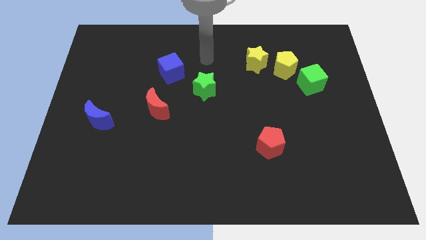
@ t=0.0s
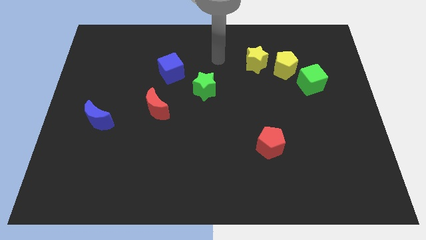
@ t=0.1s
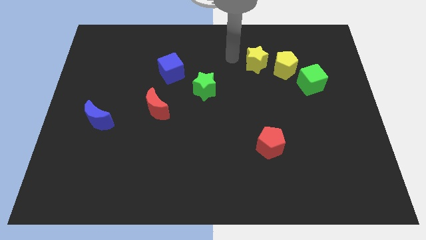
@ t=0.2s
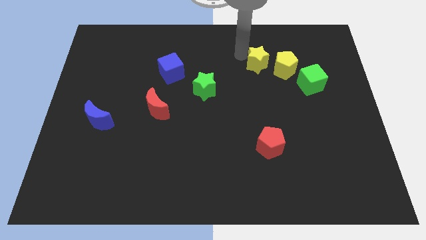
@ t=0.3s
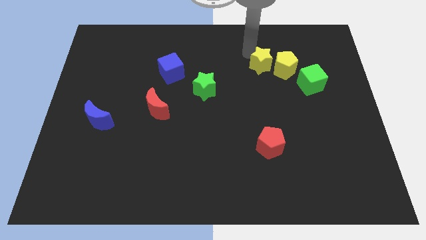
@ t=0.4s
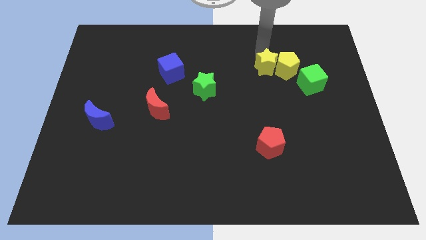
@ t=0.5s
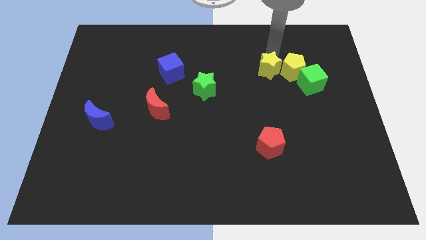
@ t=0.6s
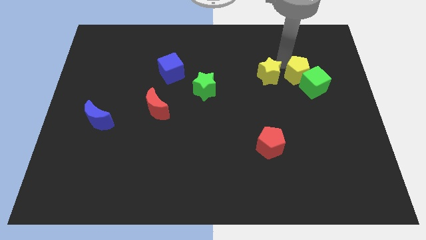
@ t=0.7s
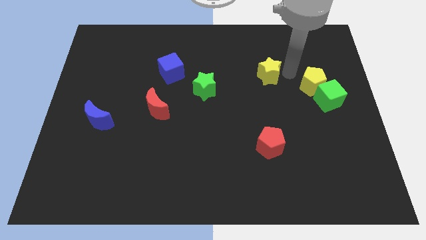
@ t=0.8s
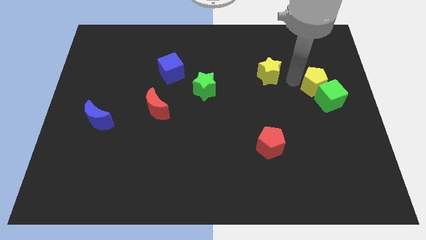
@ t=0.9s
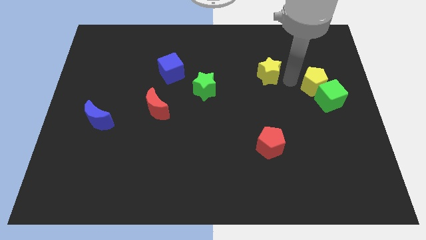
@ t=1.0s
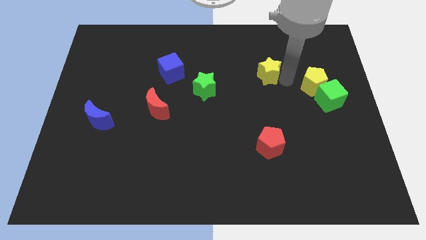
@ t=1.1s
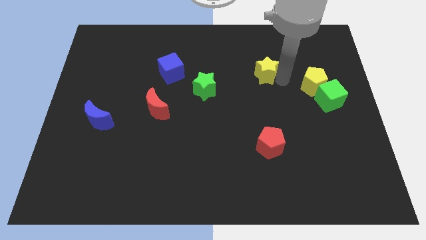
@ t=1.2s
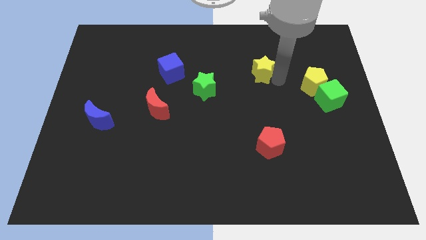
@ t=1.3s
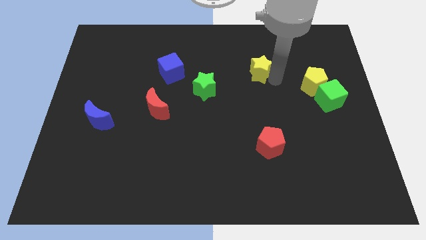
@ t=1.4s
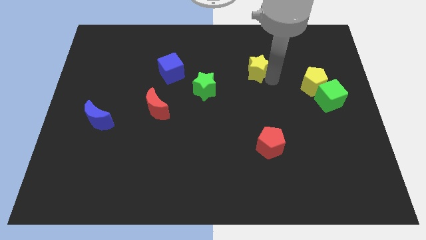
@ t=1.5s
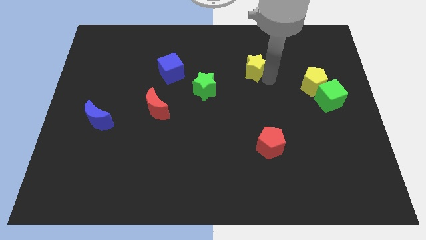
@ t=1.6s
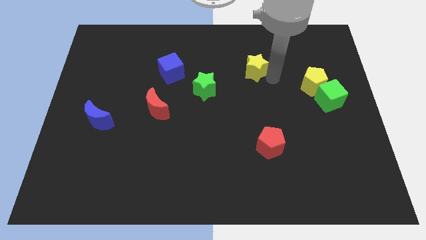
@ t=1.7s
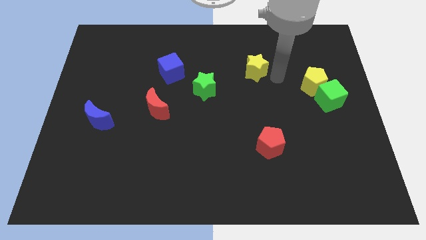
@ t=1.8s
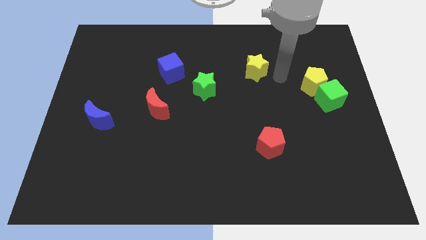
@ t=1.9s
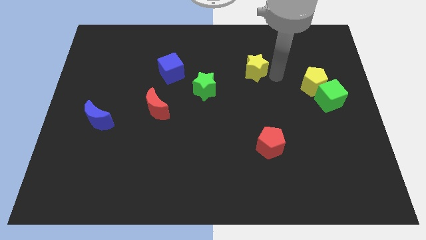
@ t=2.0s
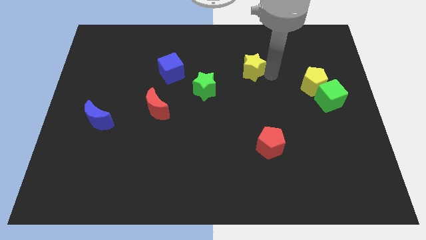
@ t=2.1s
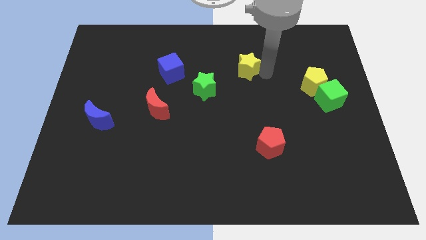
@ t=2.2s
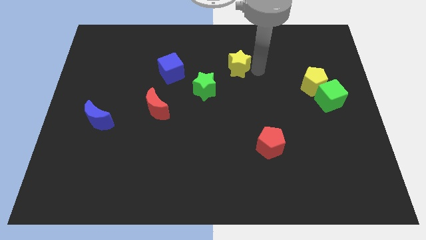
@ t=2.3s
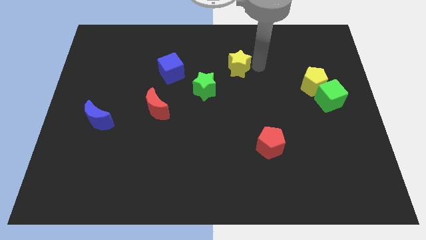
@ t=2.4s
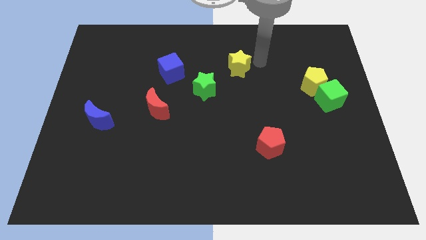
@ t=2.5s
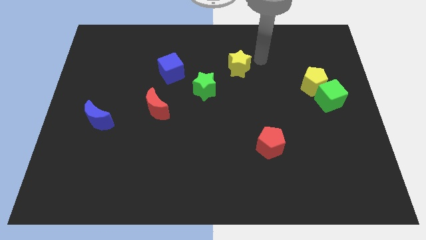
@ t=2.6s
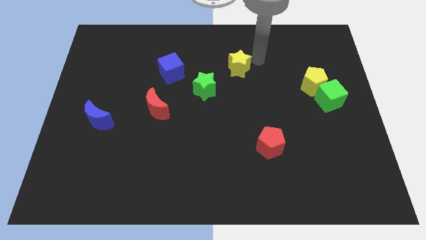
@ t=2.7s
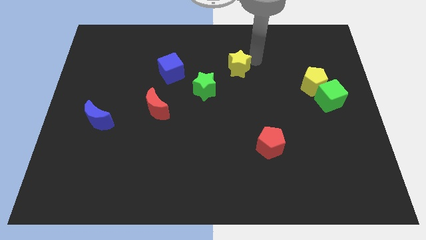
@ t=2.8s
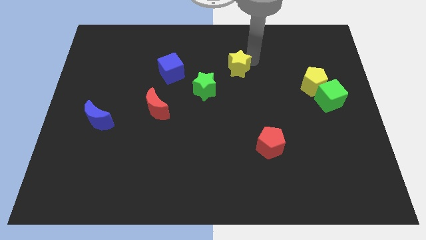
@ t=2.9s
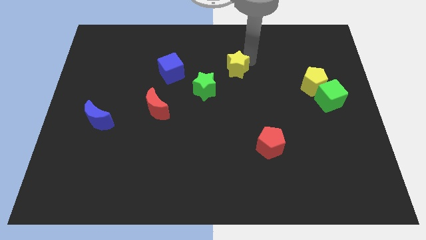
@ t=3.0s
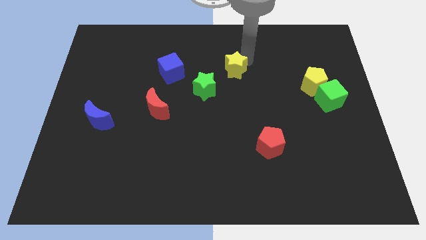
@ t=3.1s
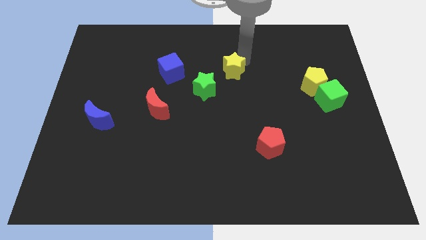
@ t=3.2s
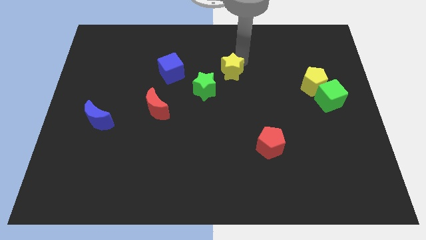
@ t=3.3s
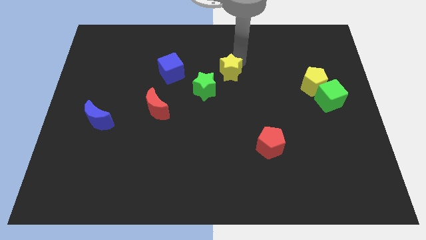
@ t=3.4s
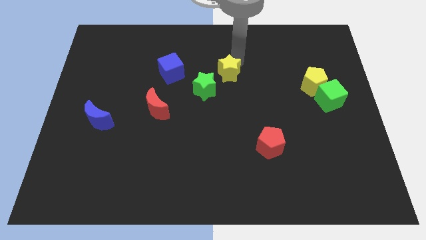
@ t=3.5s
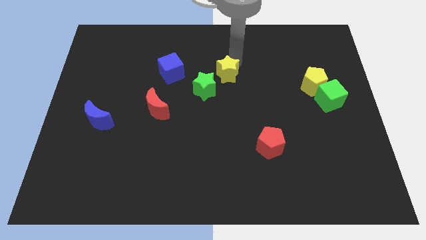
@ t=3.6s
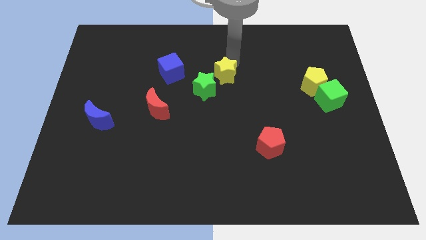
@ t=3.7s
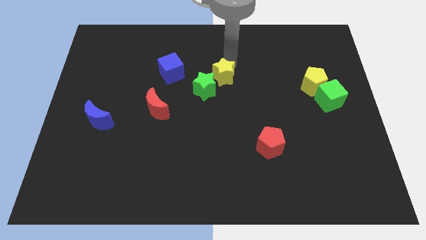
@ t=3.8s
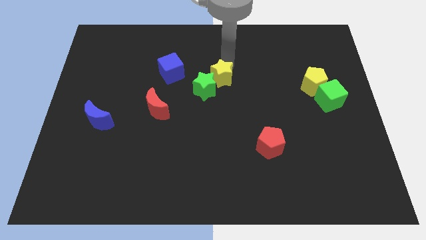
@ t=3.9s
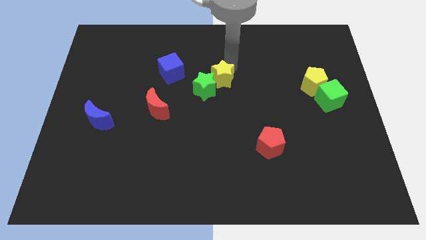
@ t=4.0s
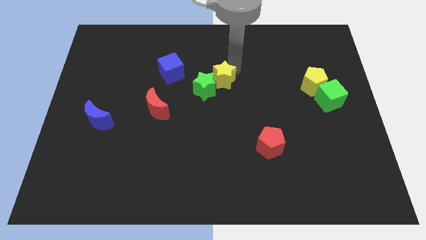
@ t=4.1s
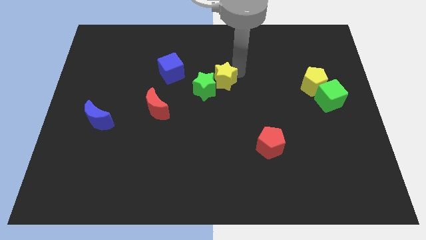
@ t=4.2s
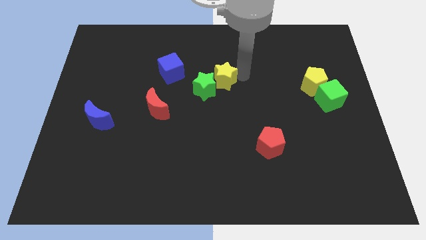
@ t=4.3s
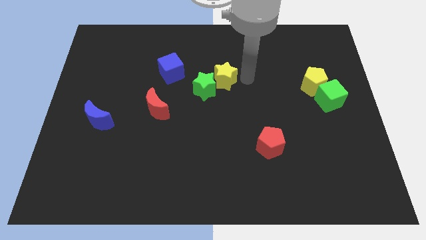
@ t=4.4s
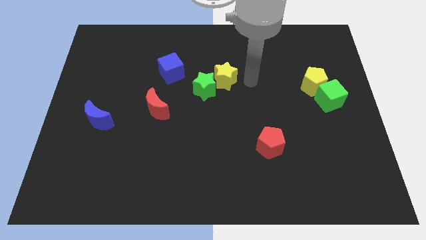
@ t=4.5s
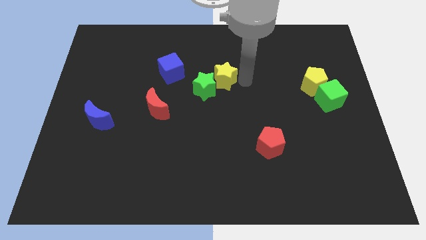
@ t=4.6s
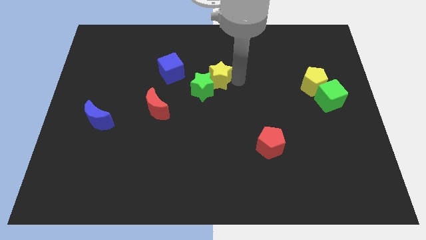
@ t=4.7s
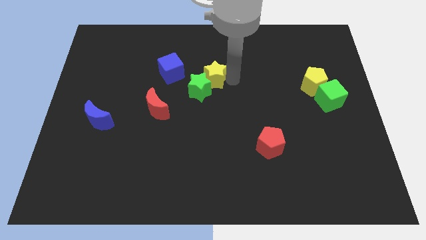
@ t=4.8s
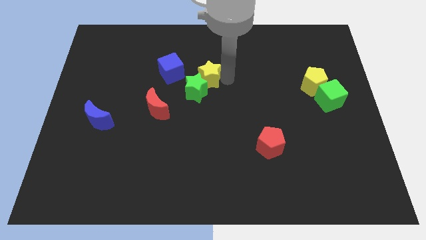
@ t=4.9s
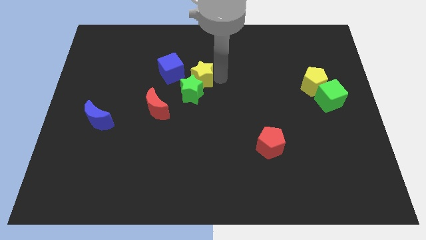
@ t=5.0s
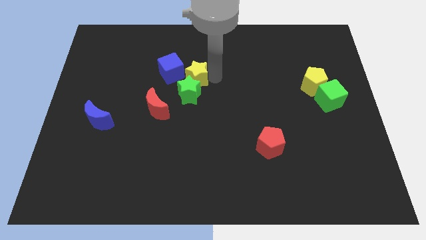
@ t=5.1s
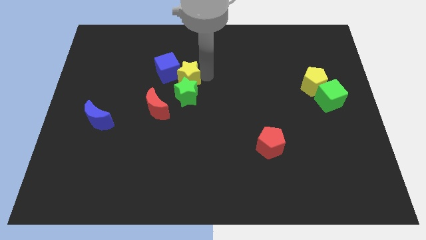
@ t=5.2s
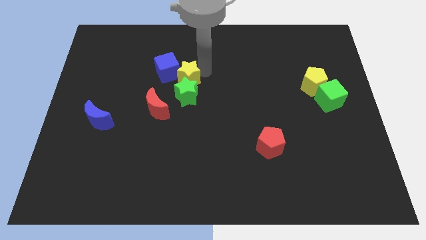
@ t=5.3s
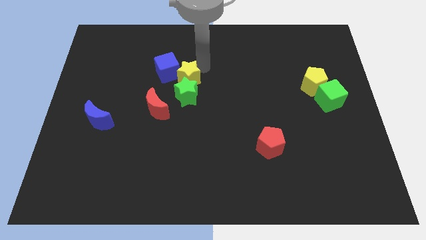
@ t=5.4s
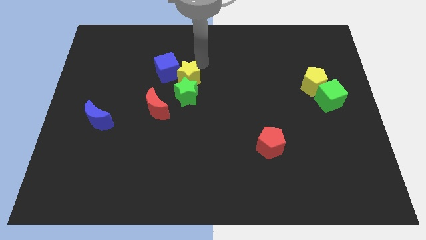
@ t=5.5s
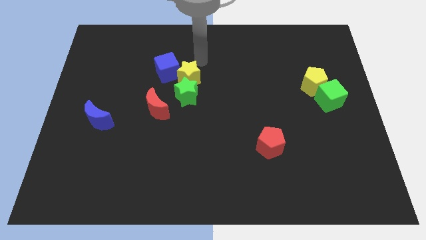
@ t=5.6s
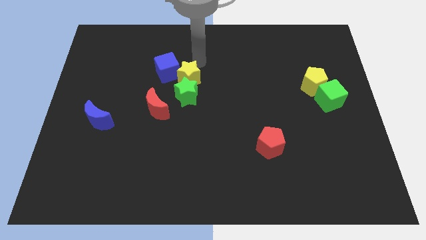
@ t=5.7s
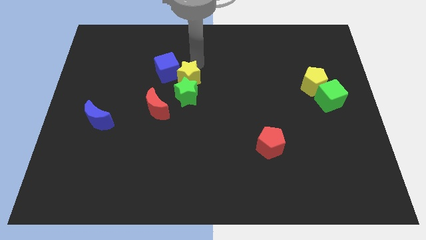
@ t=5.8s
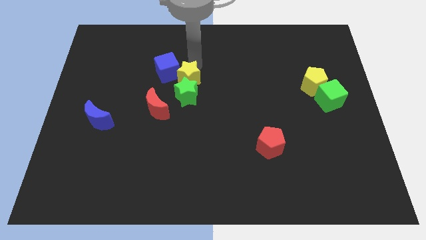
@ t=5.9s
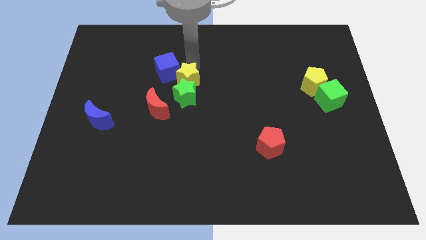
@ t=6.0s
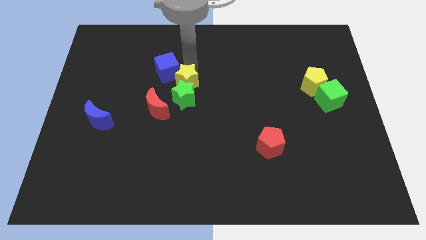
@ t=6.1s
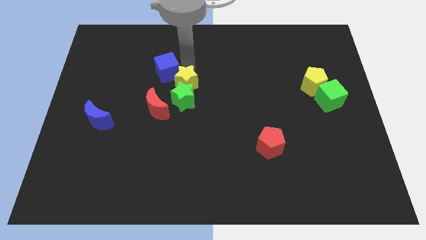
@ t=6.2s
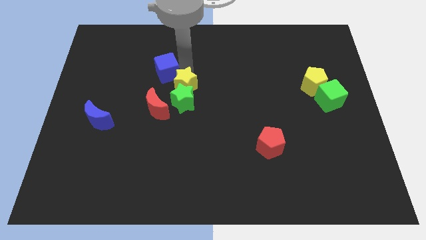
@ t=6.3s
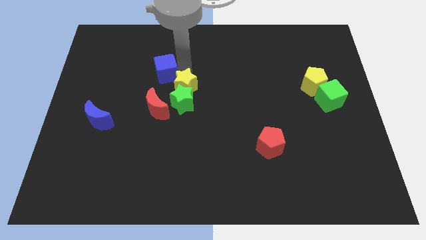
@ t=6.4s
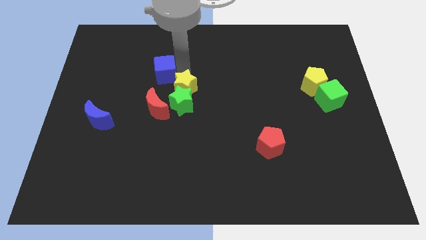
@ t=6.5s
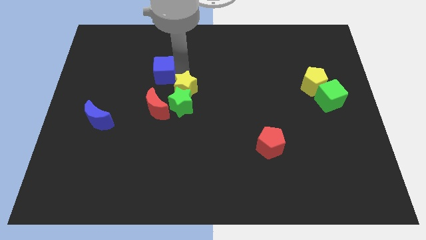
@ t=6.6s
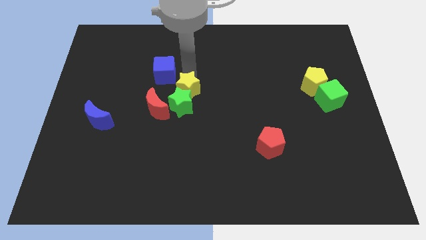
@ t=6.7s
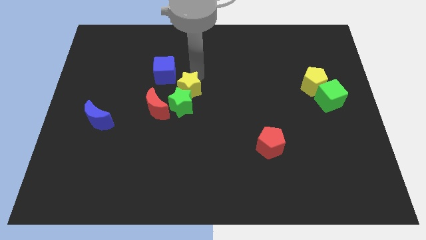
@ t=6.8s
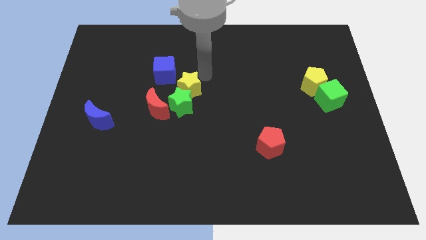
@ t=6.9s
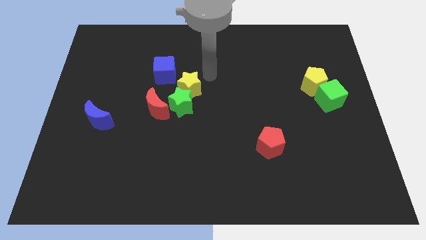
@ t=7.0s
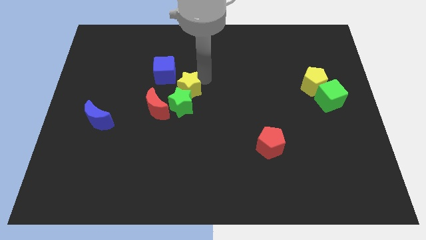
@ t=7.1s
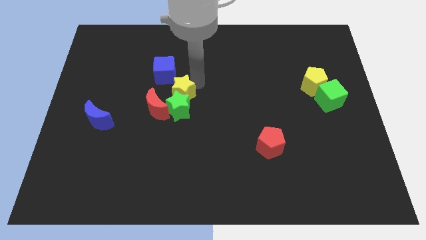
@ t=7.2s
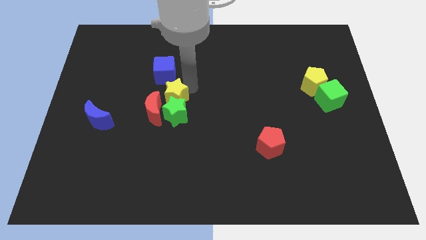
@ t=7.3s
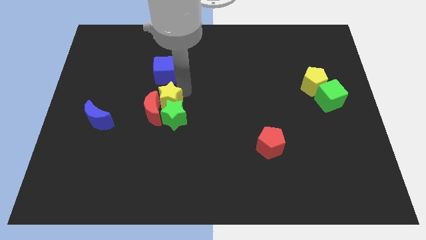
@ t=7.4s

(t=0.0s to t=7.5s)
push the yellow star to the red moon
